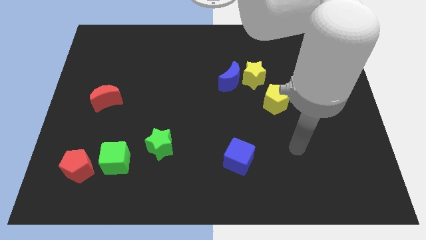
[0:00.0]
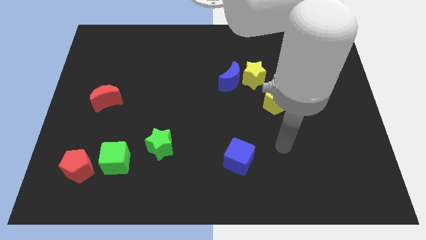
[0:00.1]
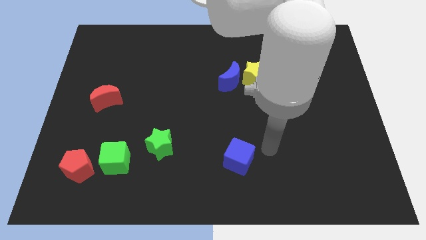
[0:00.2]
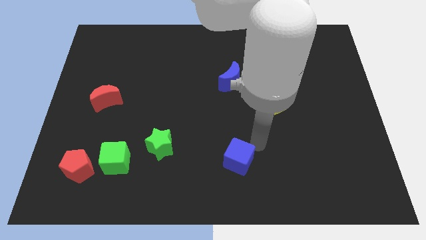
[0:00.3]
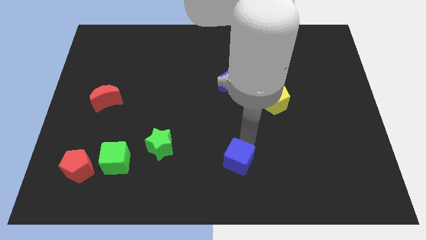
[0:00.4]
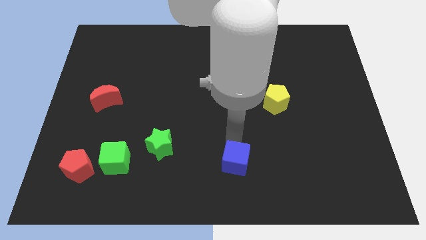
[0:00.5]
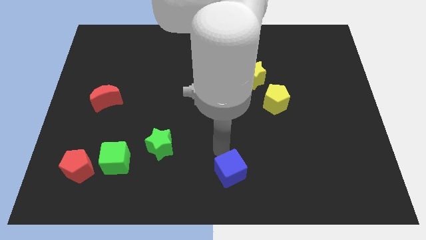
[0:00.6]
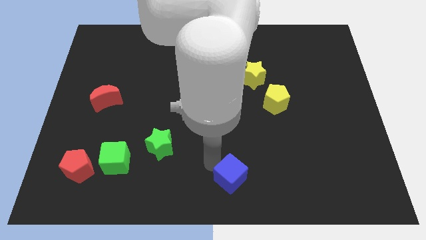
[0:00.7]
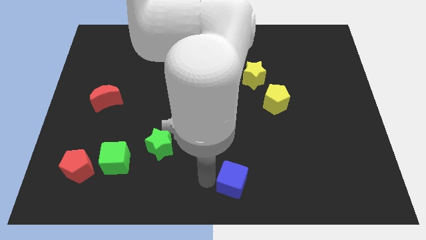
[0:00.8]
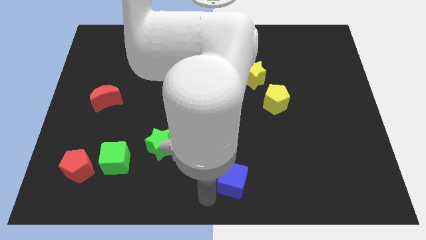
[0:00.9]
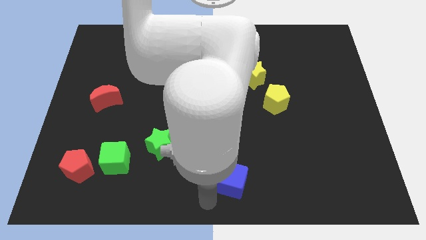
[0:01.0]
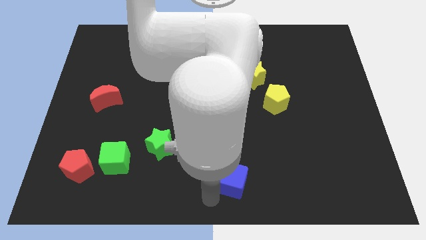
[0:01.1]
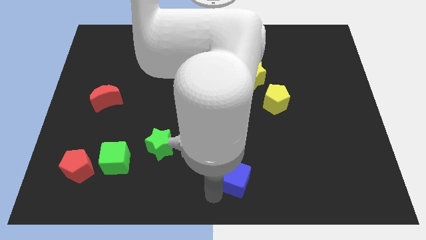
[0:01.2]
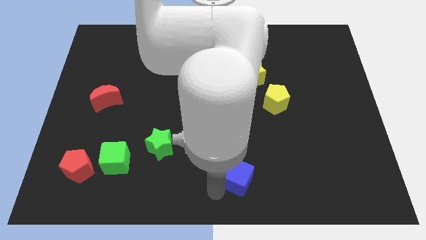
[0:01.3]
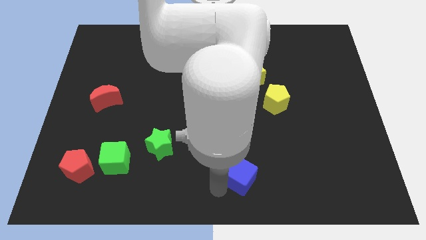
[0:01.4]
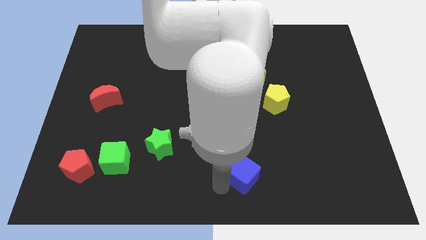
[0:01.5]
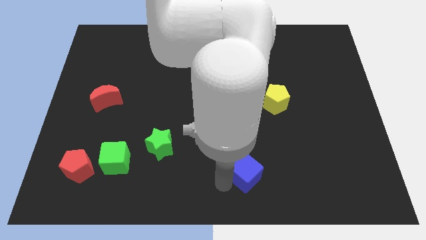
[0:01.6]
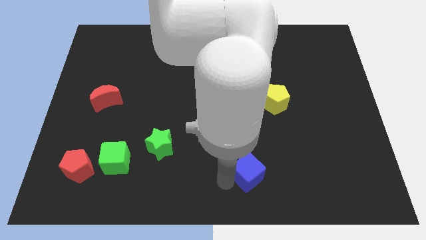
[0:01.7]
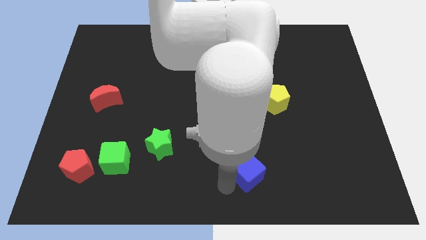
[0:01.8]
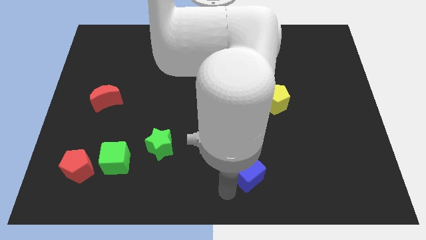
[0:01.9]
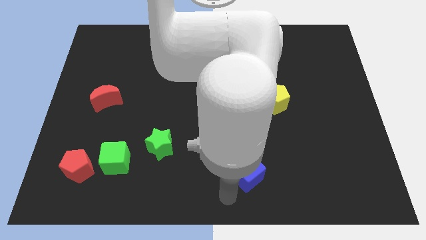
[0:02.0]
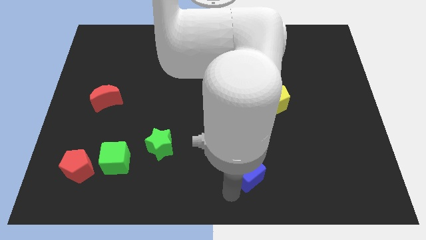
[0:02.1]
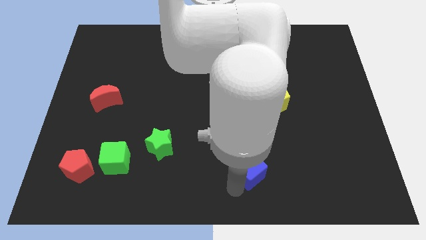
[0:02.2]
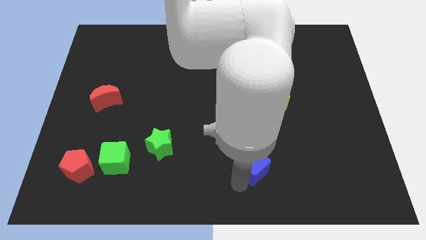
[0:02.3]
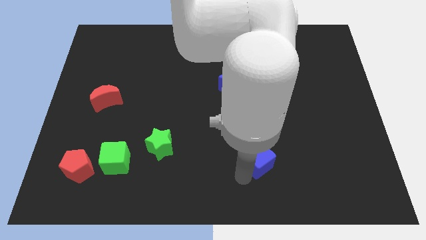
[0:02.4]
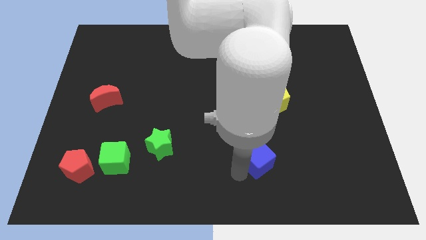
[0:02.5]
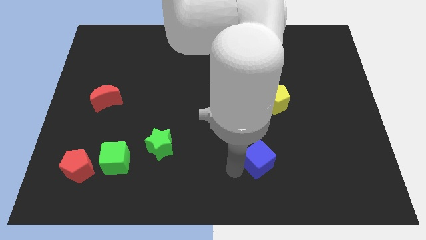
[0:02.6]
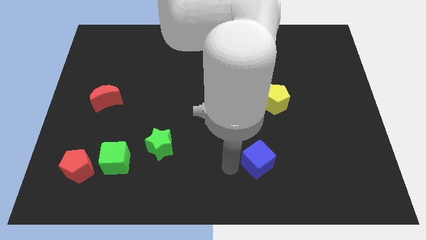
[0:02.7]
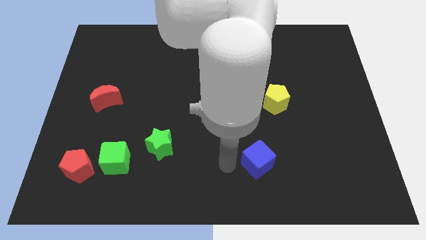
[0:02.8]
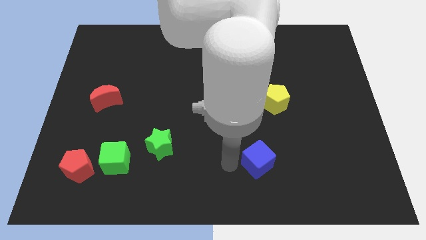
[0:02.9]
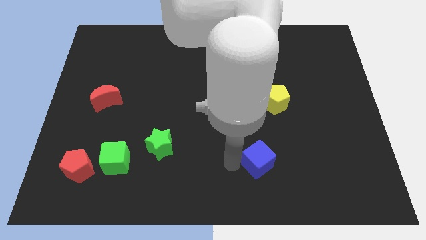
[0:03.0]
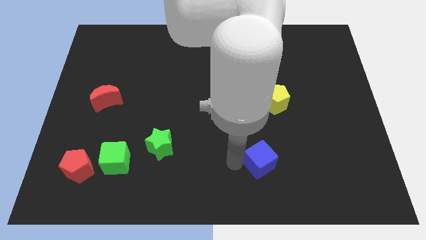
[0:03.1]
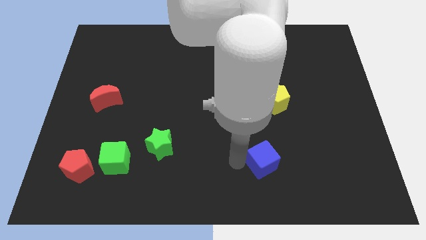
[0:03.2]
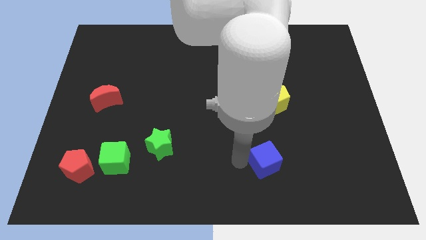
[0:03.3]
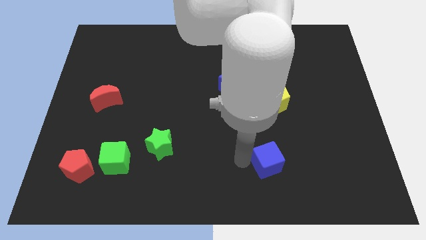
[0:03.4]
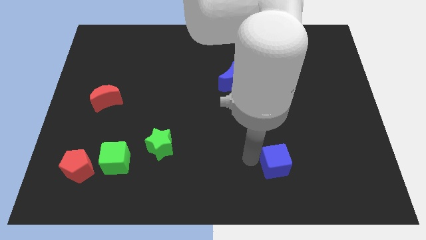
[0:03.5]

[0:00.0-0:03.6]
push the blue cube to the right slightly

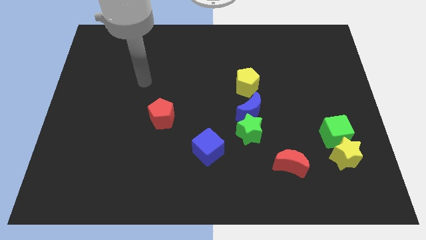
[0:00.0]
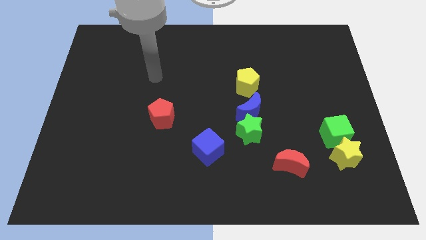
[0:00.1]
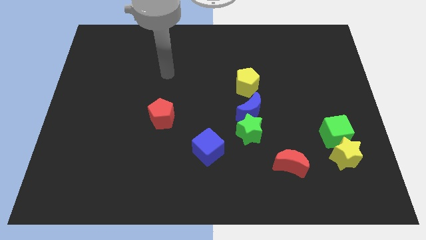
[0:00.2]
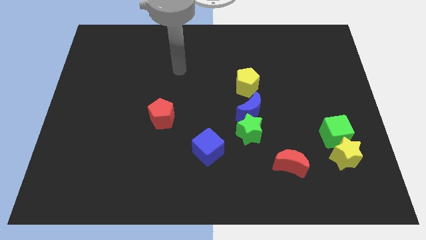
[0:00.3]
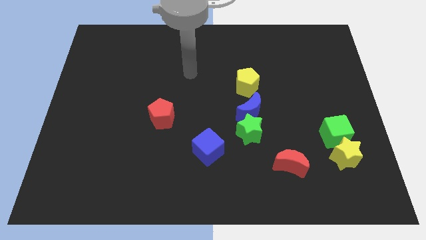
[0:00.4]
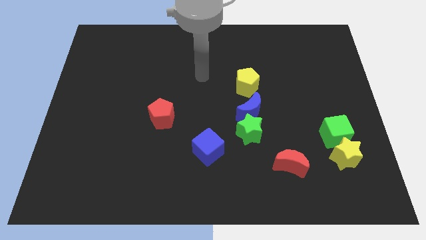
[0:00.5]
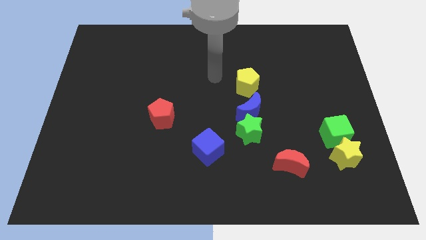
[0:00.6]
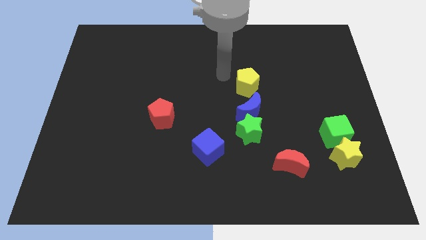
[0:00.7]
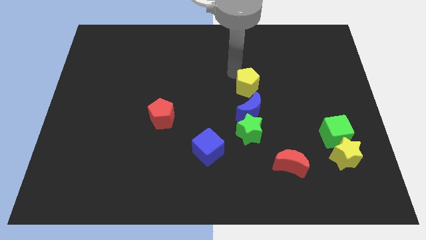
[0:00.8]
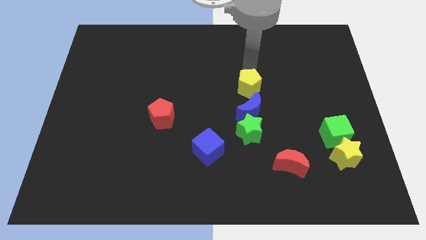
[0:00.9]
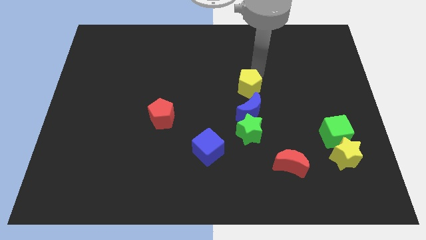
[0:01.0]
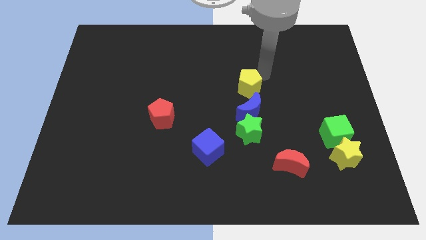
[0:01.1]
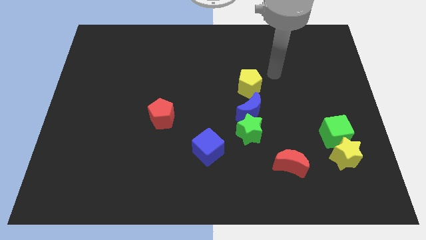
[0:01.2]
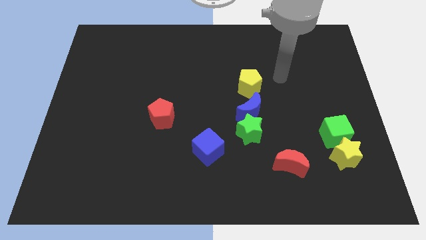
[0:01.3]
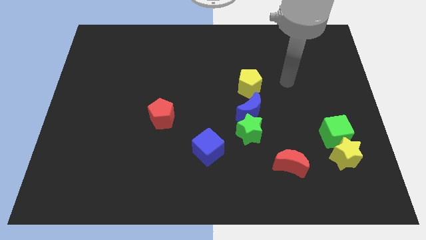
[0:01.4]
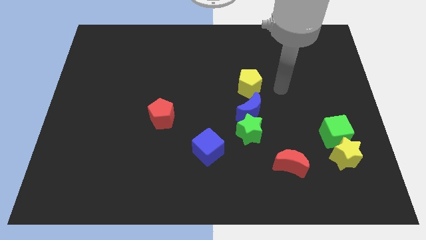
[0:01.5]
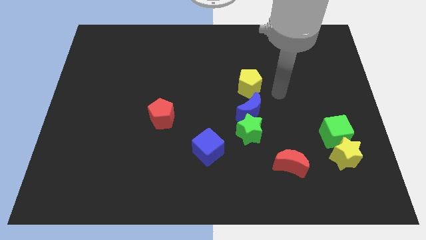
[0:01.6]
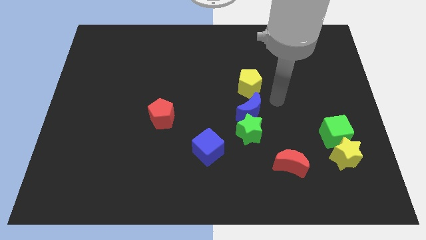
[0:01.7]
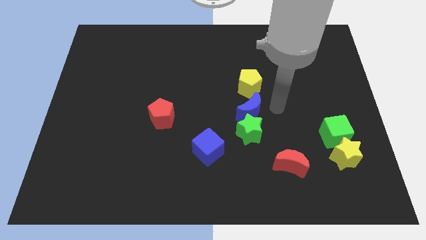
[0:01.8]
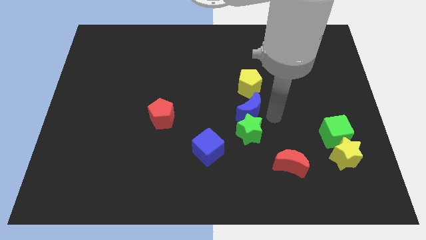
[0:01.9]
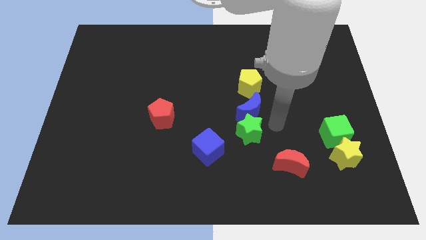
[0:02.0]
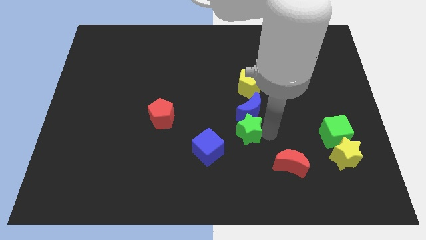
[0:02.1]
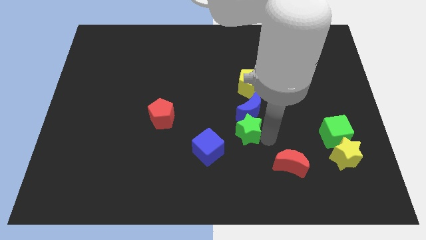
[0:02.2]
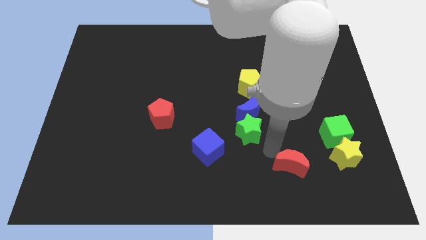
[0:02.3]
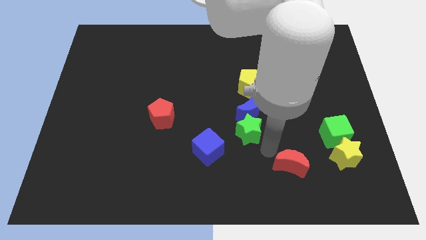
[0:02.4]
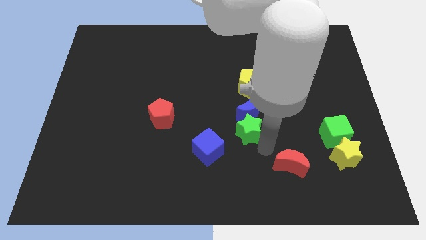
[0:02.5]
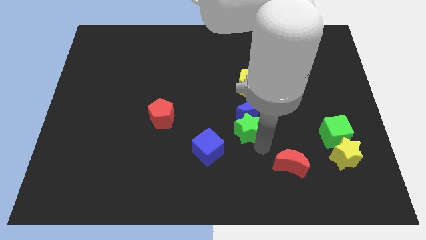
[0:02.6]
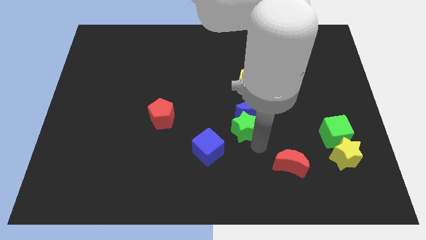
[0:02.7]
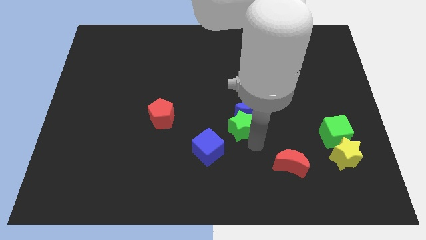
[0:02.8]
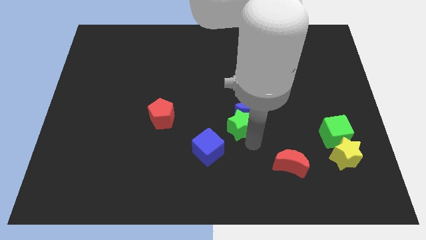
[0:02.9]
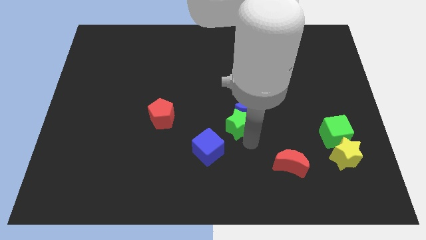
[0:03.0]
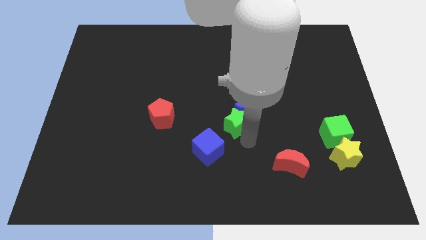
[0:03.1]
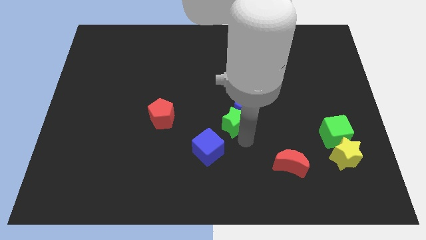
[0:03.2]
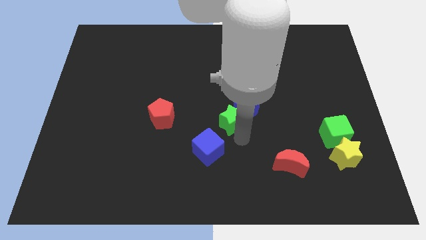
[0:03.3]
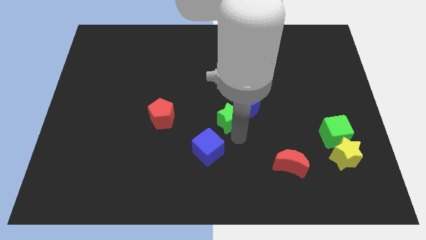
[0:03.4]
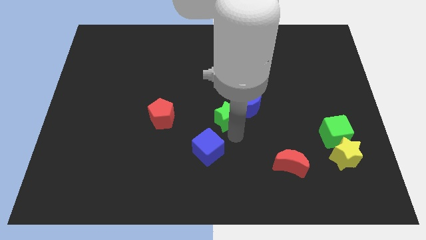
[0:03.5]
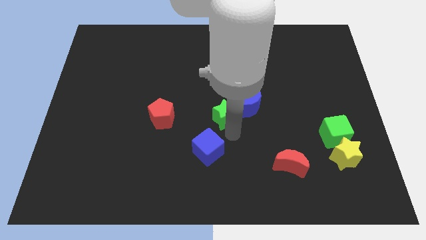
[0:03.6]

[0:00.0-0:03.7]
slide the green star upwards and to the left diagonally somewhat

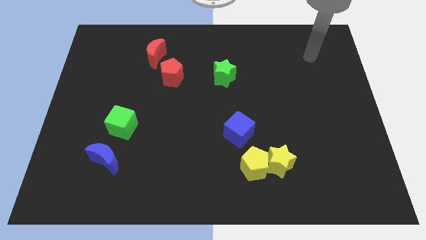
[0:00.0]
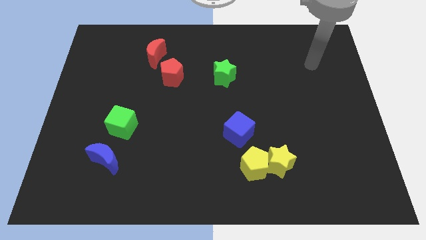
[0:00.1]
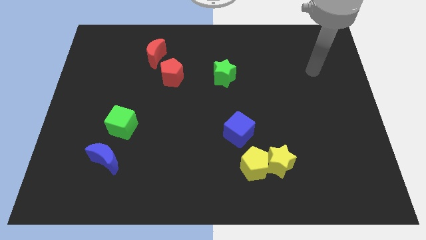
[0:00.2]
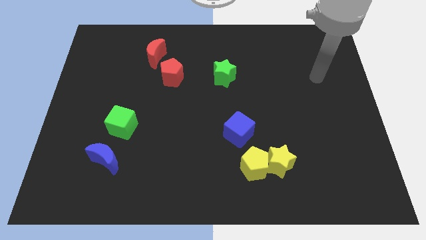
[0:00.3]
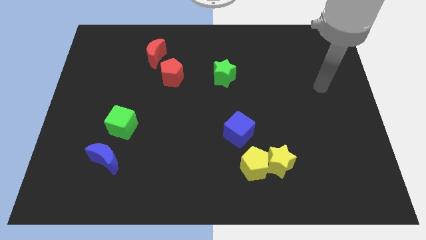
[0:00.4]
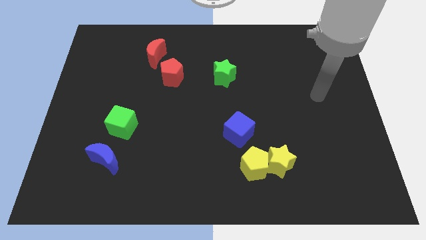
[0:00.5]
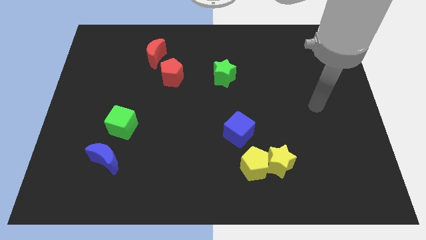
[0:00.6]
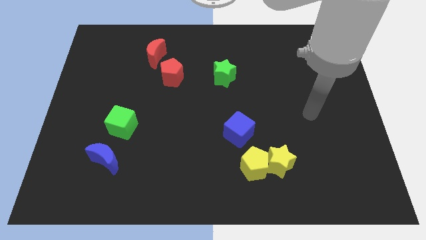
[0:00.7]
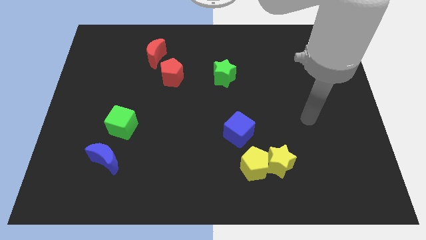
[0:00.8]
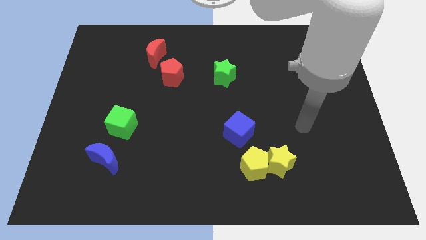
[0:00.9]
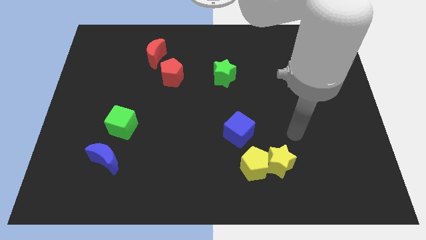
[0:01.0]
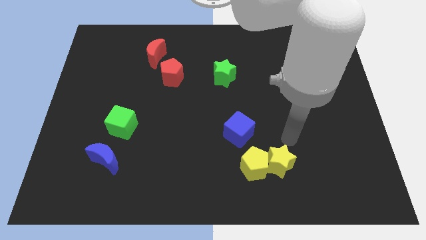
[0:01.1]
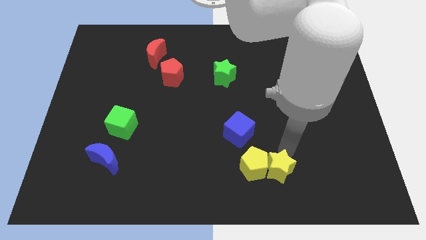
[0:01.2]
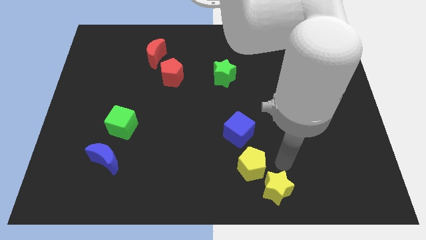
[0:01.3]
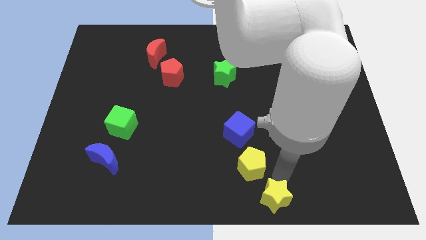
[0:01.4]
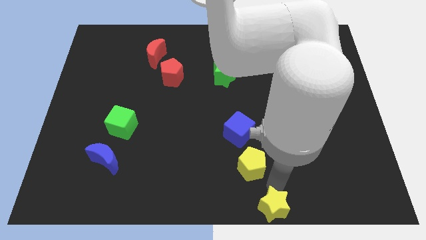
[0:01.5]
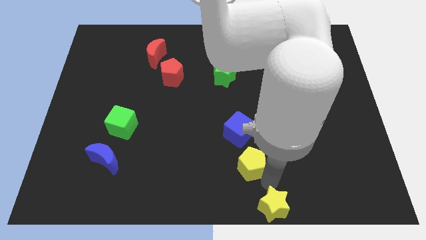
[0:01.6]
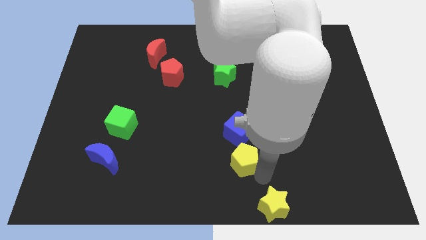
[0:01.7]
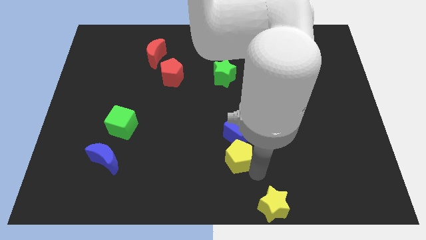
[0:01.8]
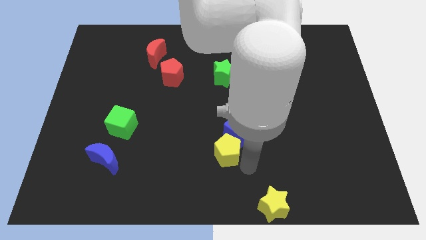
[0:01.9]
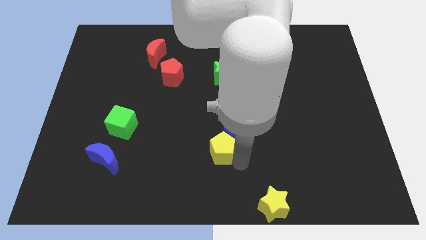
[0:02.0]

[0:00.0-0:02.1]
slightly slide the yellow pentagon up and to the left diagonally
